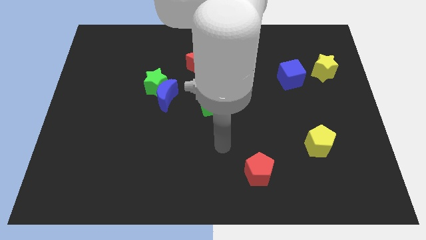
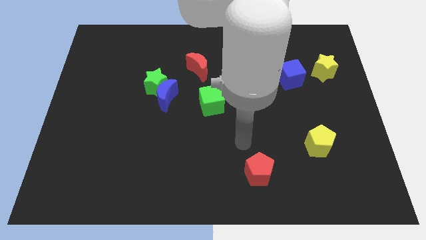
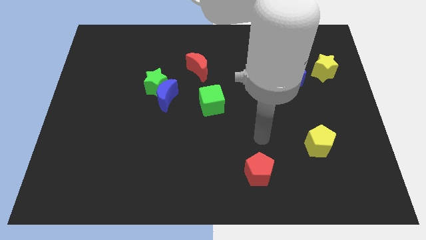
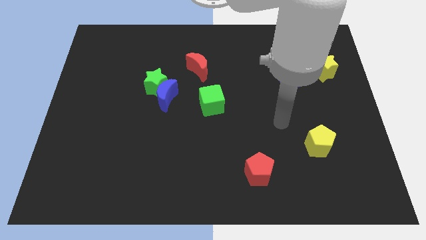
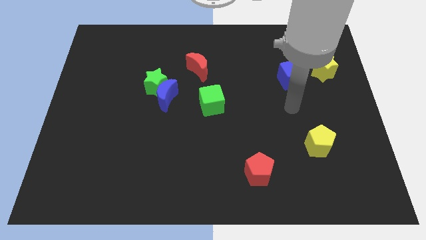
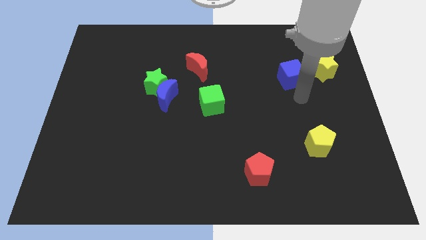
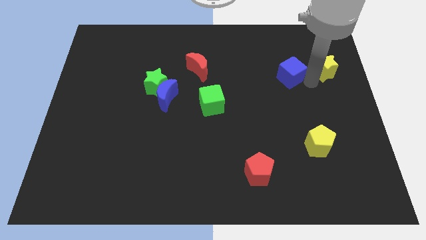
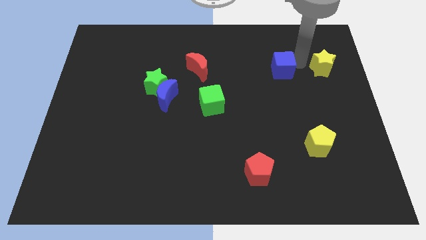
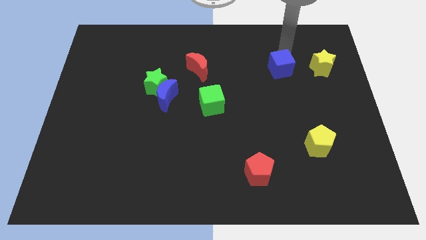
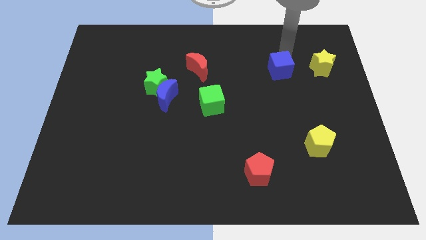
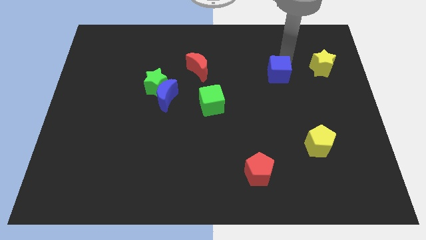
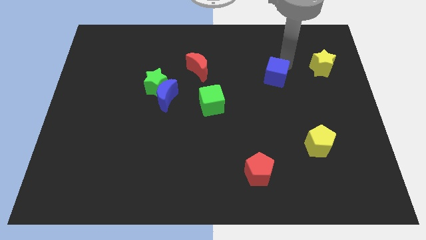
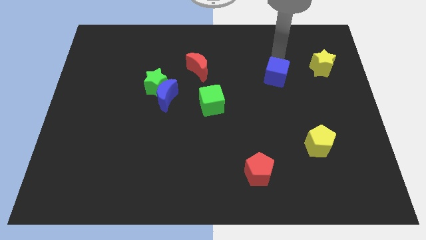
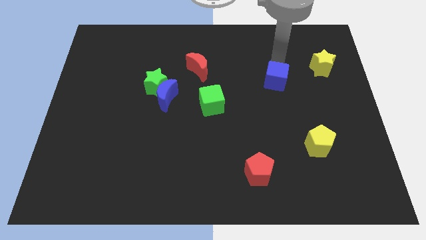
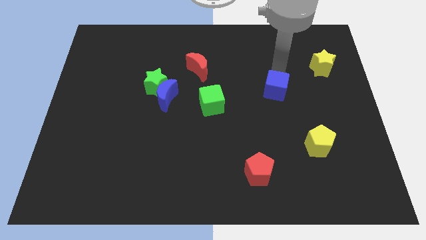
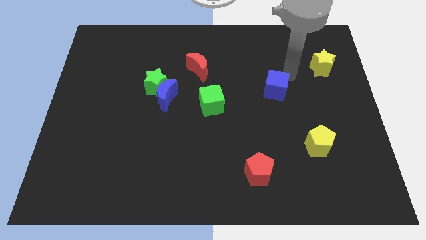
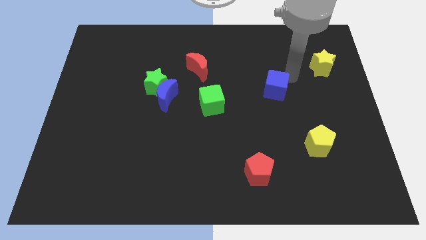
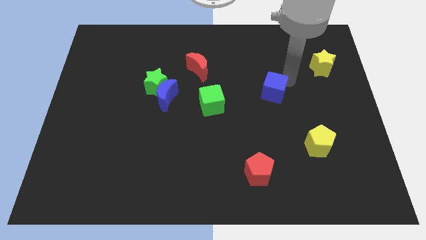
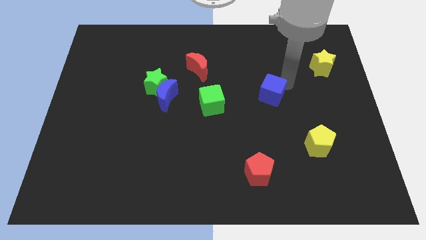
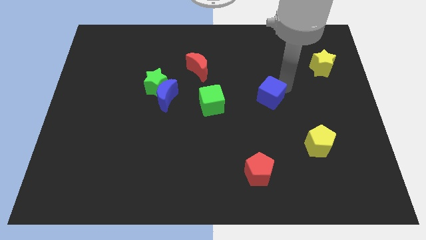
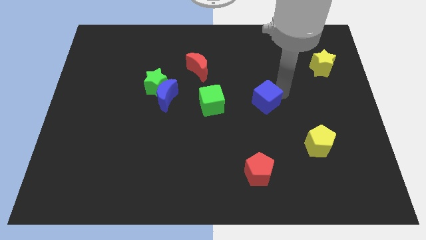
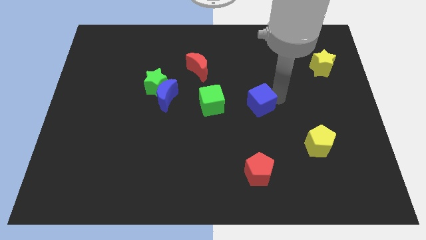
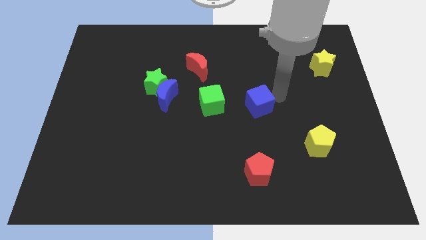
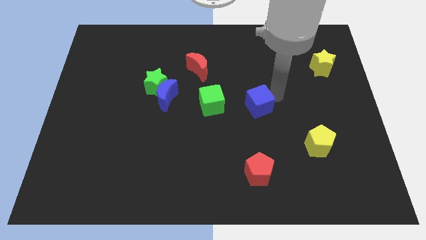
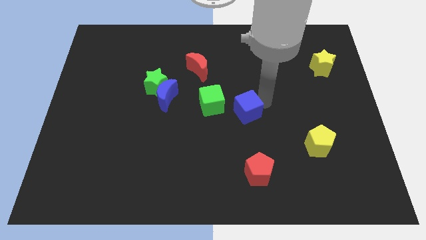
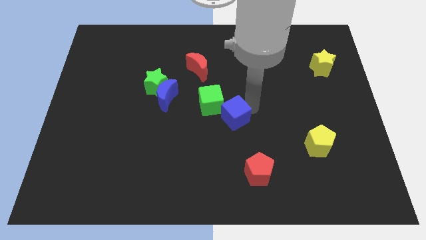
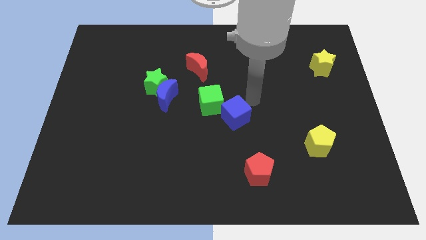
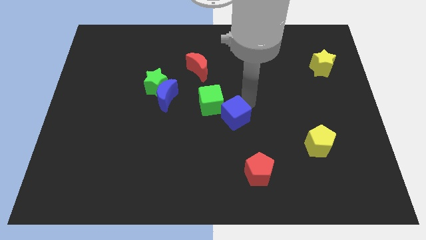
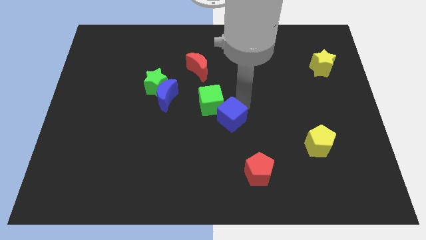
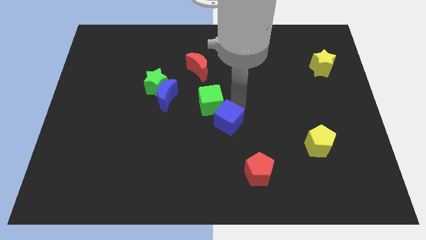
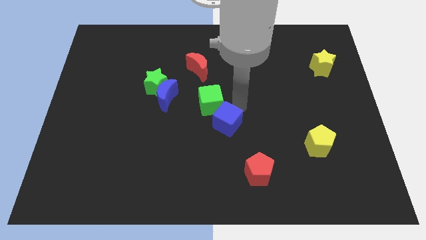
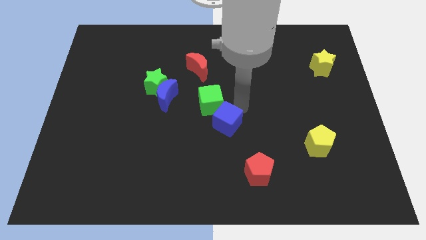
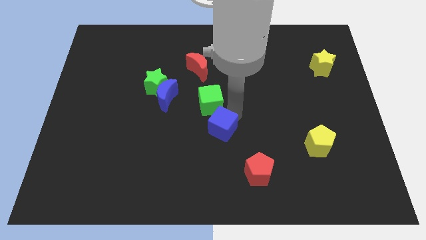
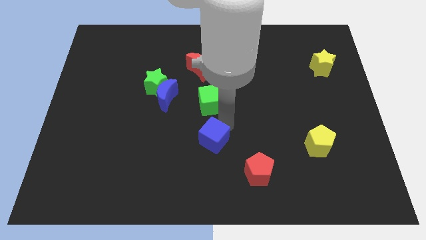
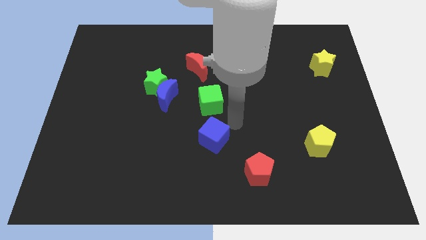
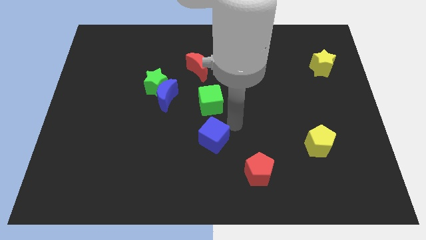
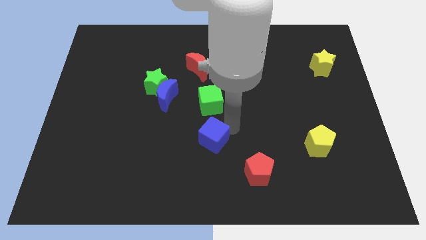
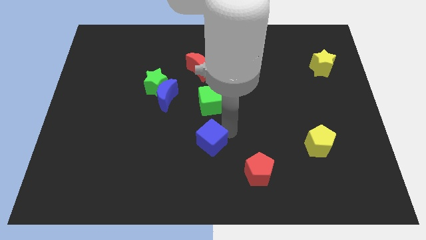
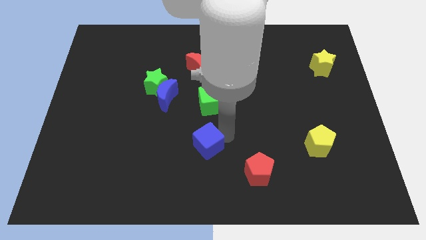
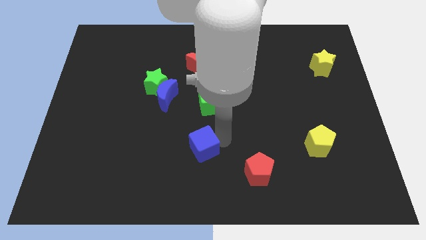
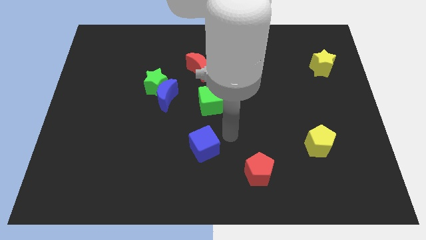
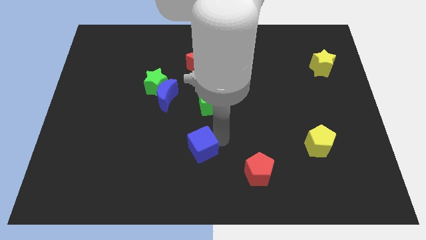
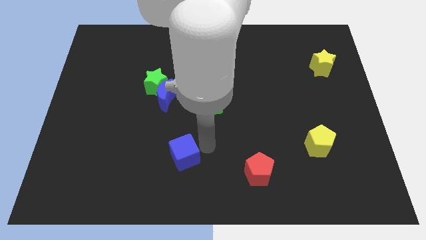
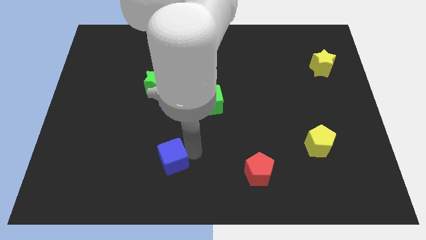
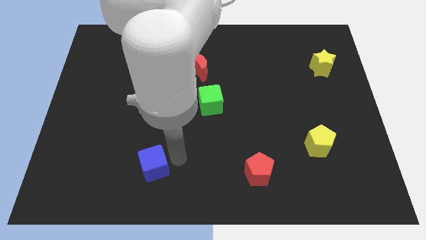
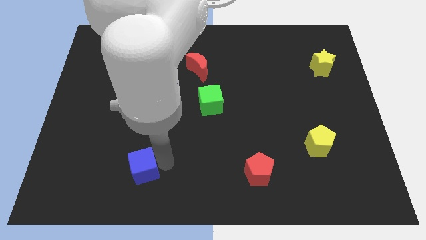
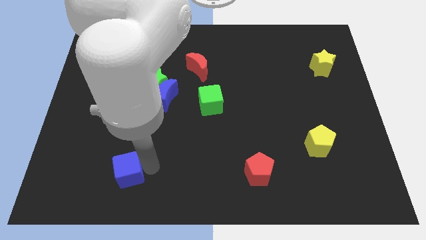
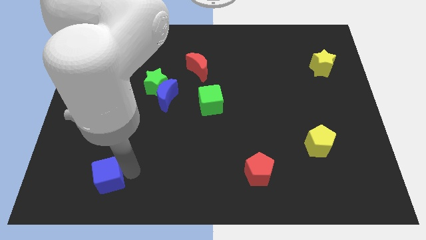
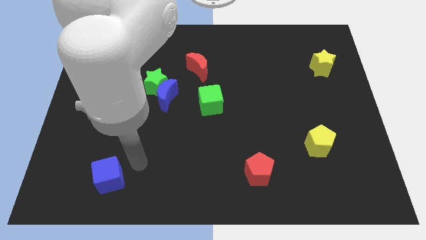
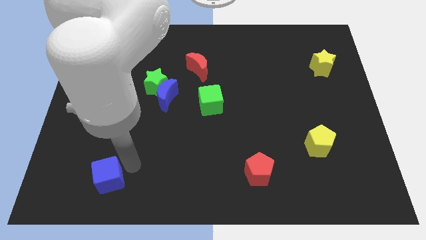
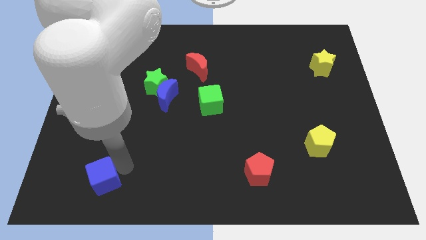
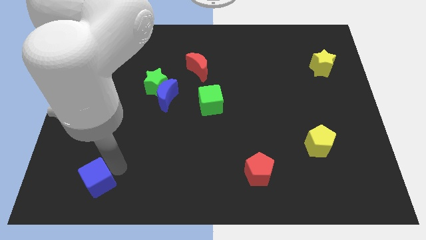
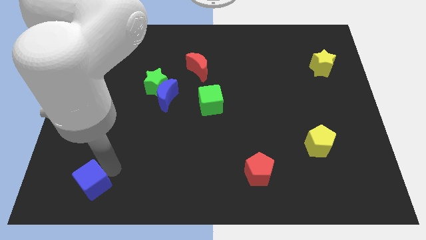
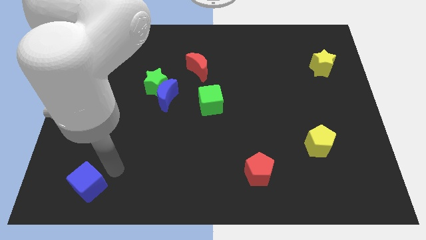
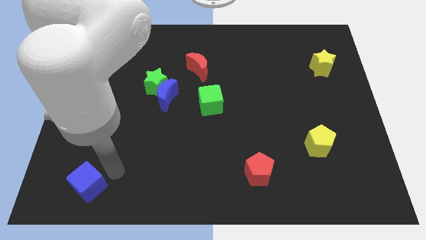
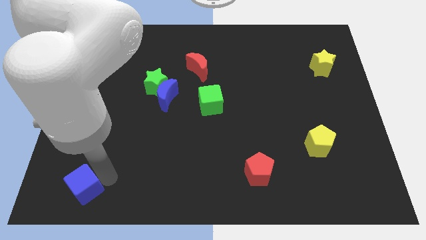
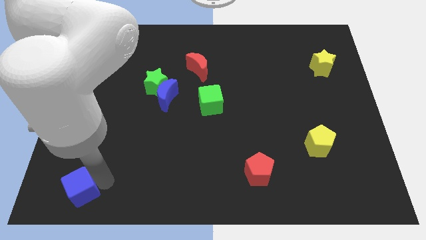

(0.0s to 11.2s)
put the blue cube to the bottom left
